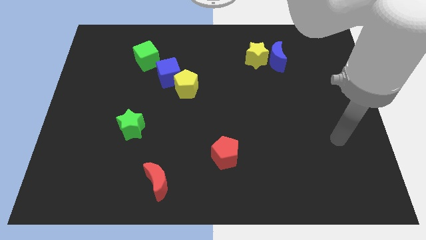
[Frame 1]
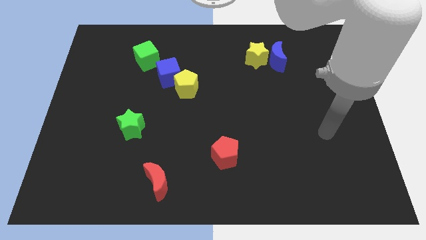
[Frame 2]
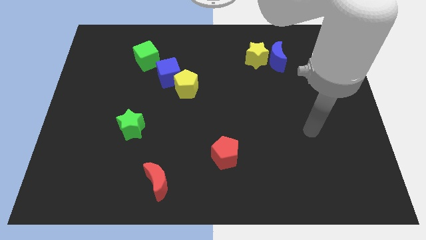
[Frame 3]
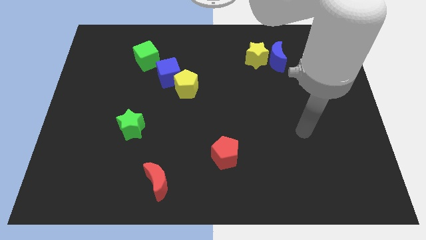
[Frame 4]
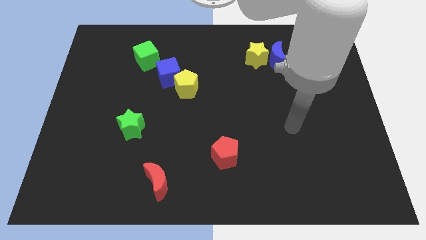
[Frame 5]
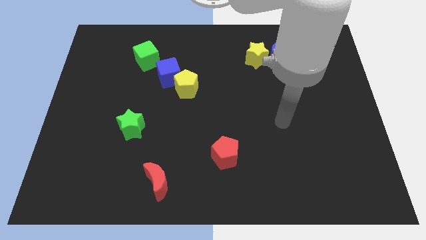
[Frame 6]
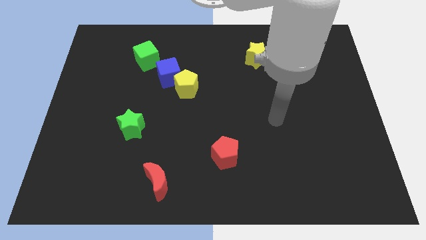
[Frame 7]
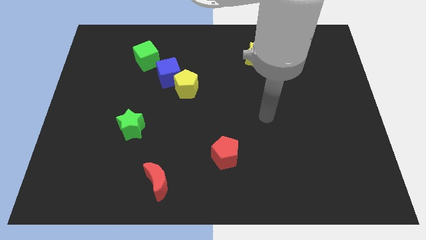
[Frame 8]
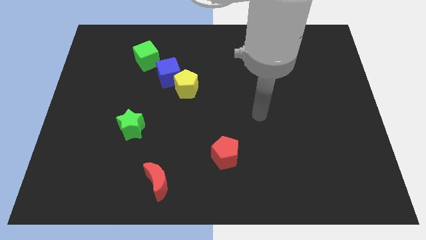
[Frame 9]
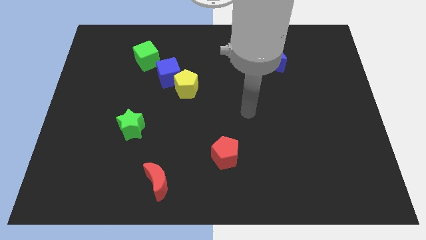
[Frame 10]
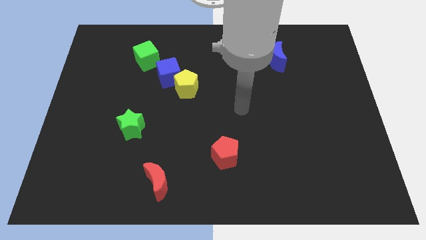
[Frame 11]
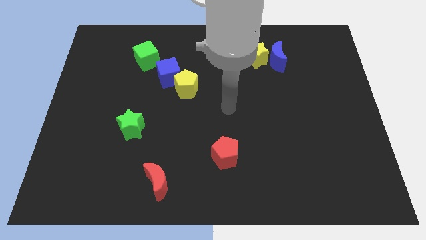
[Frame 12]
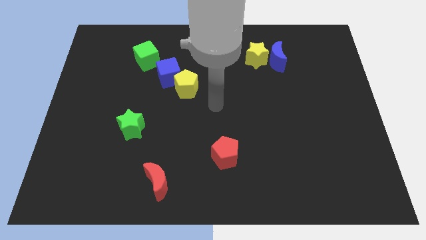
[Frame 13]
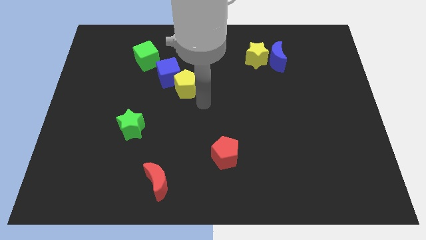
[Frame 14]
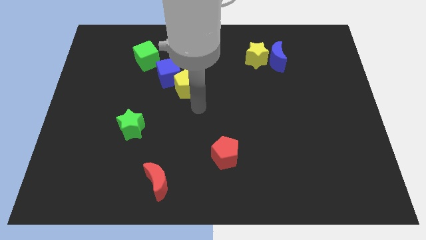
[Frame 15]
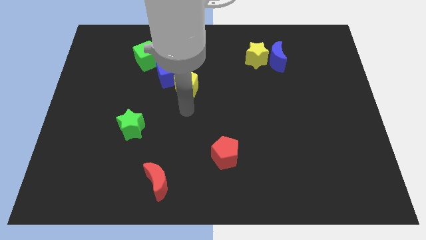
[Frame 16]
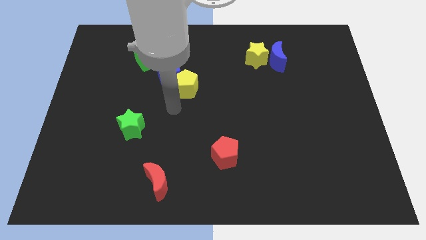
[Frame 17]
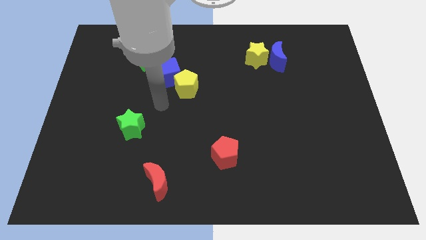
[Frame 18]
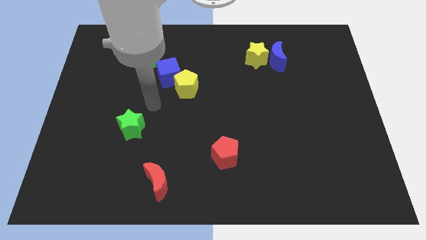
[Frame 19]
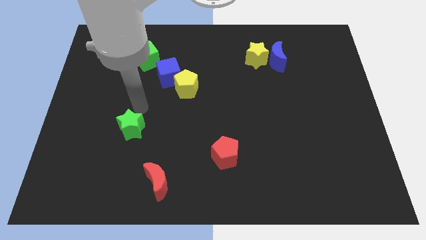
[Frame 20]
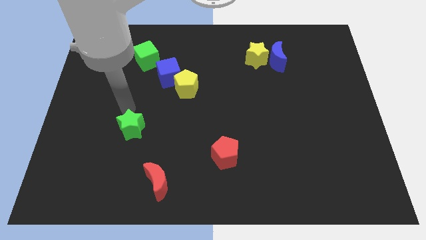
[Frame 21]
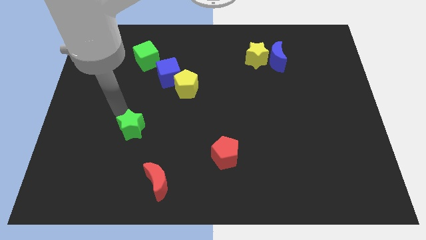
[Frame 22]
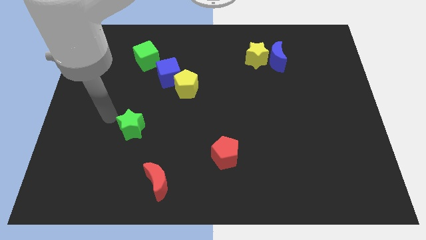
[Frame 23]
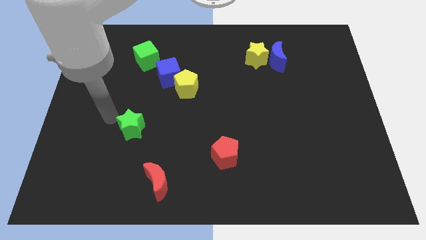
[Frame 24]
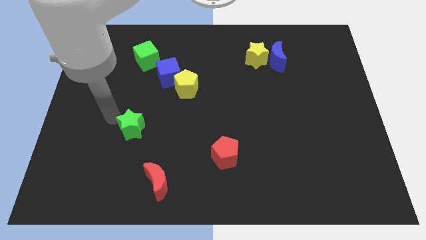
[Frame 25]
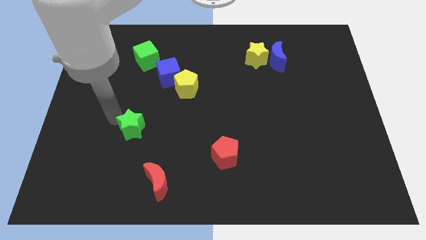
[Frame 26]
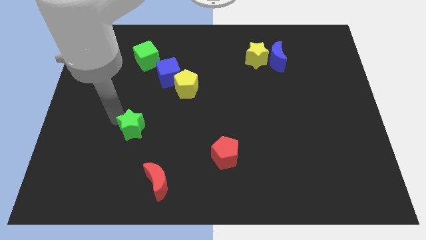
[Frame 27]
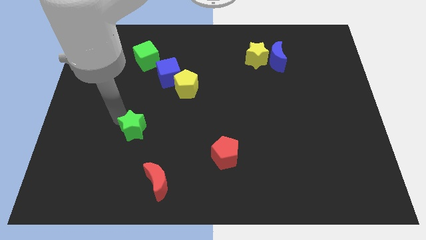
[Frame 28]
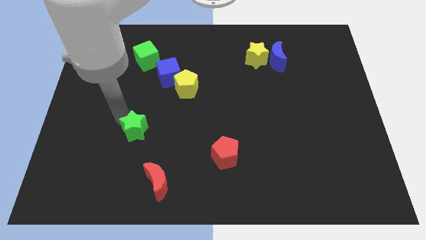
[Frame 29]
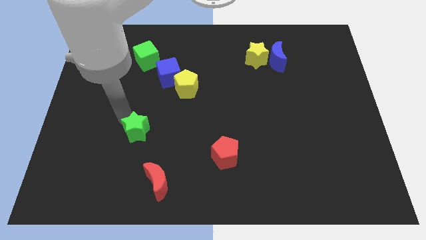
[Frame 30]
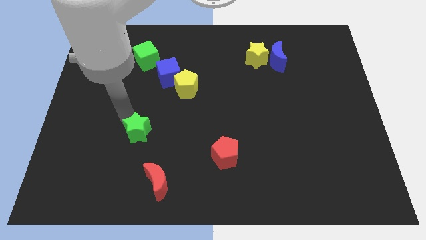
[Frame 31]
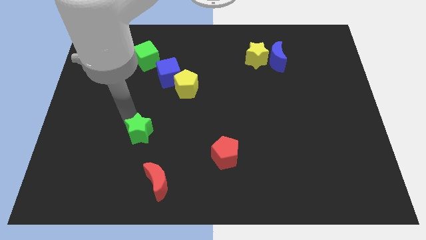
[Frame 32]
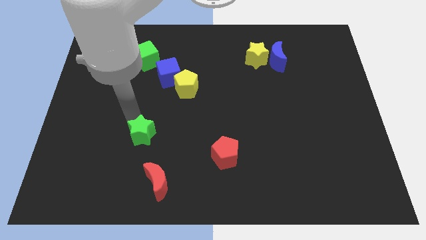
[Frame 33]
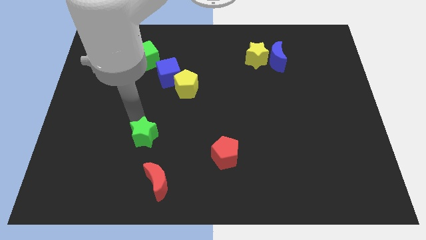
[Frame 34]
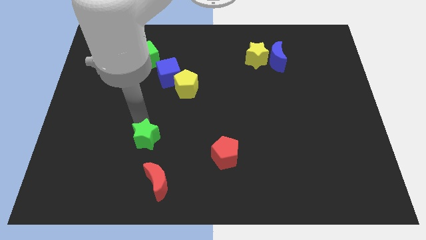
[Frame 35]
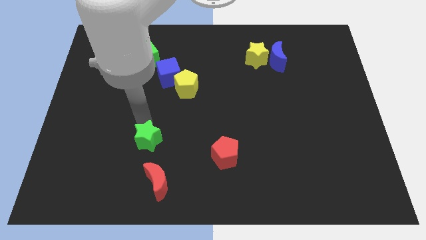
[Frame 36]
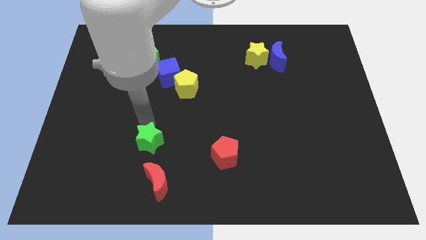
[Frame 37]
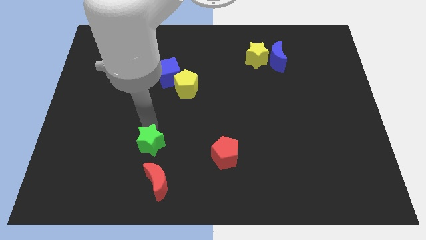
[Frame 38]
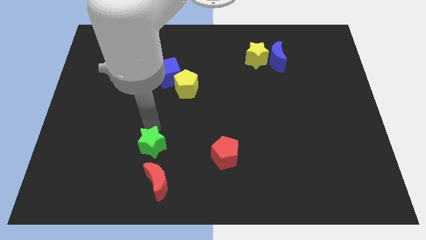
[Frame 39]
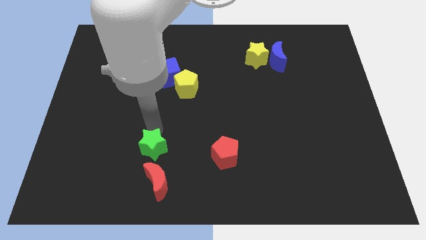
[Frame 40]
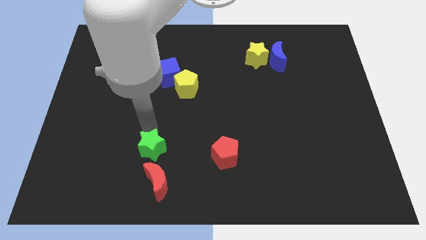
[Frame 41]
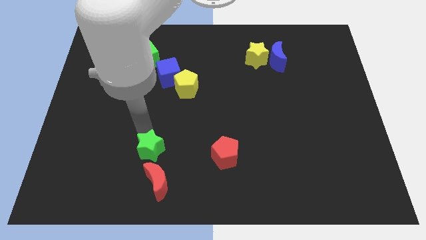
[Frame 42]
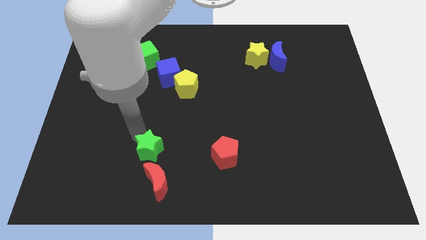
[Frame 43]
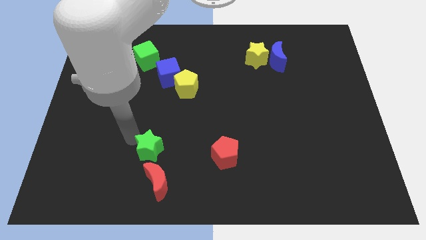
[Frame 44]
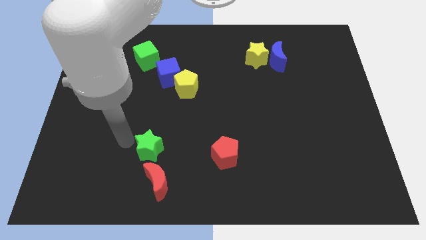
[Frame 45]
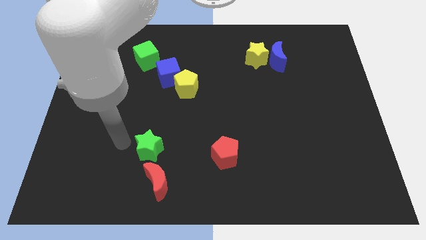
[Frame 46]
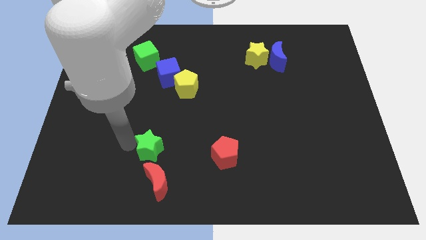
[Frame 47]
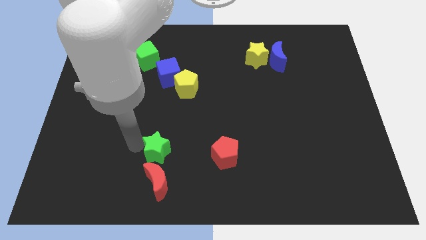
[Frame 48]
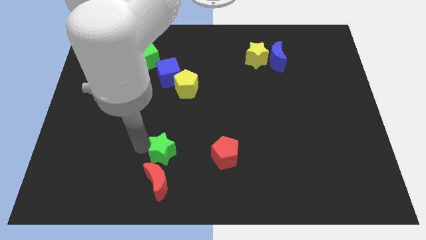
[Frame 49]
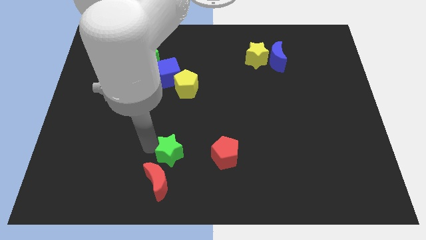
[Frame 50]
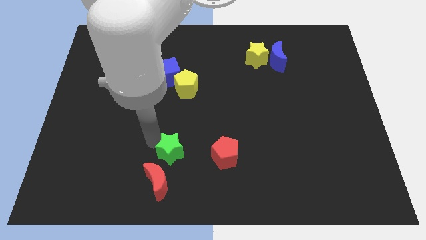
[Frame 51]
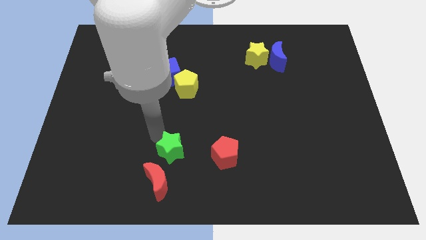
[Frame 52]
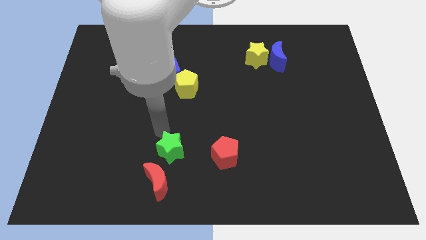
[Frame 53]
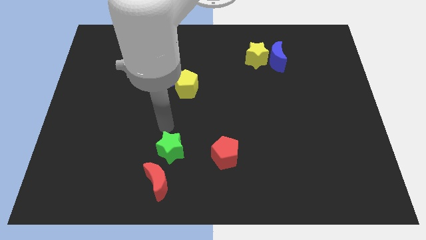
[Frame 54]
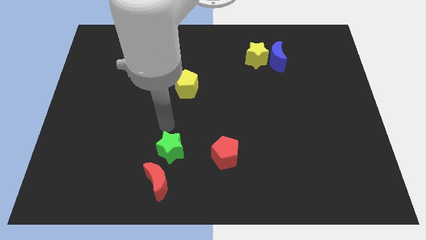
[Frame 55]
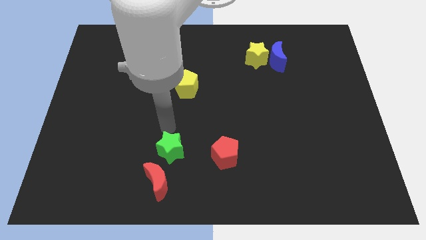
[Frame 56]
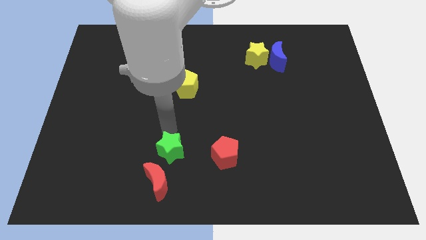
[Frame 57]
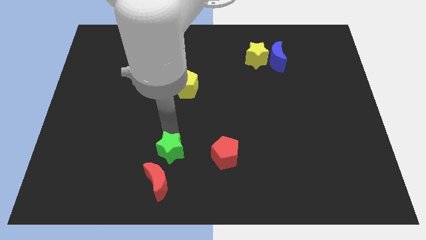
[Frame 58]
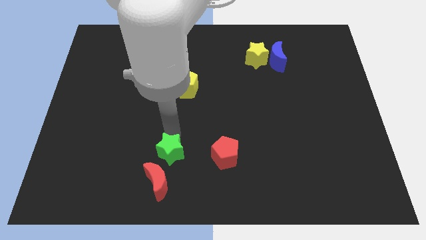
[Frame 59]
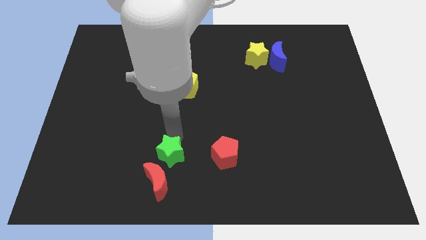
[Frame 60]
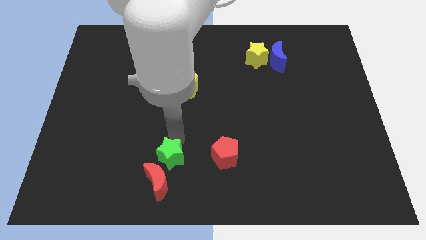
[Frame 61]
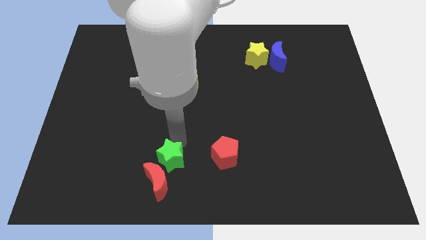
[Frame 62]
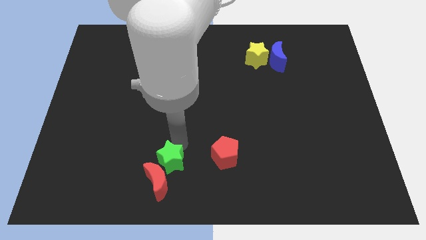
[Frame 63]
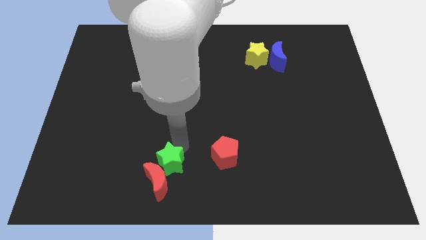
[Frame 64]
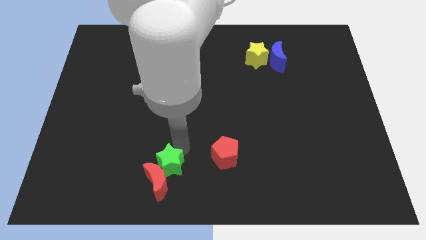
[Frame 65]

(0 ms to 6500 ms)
put the green star to the bottom
